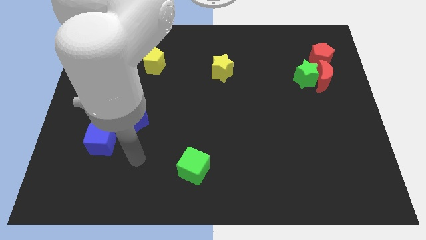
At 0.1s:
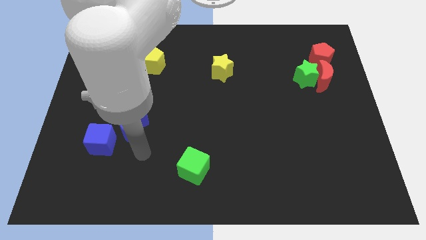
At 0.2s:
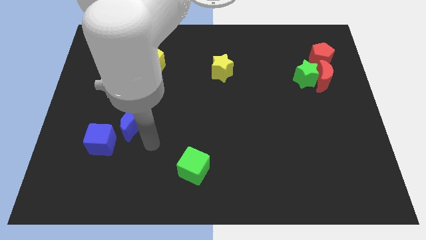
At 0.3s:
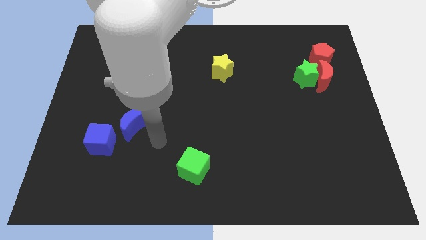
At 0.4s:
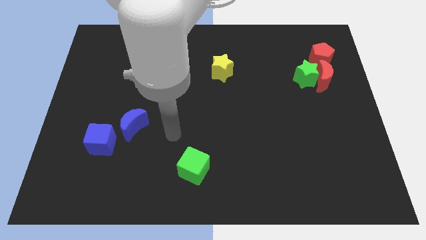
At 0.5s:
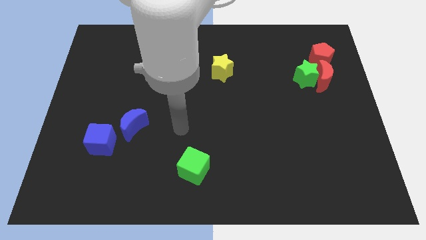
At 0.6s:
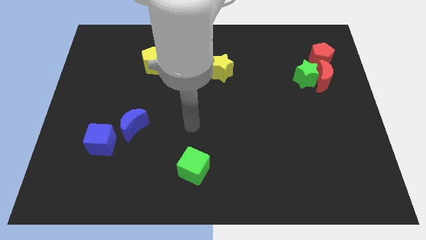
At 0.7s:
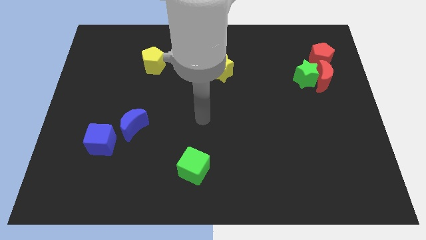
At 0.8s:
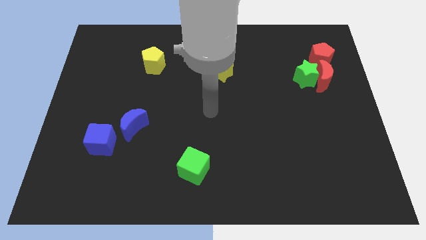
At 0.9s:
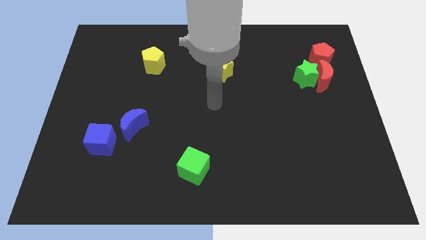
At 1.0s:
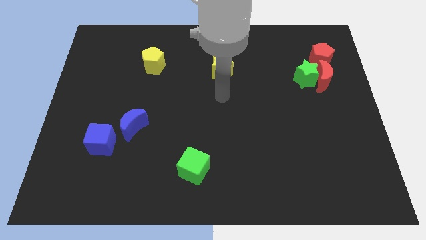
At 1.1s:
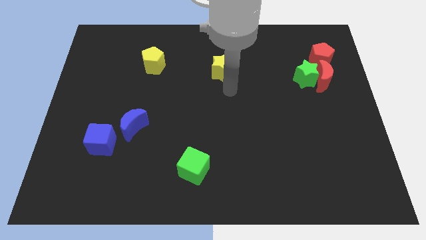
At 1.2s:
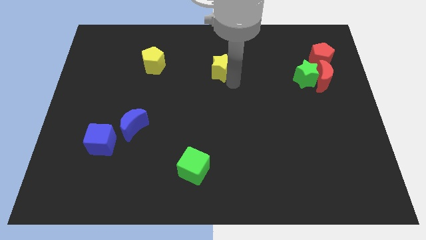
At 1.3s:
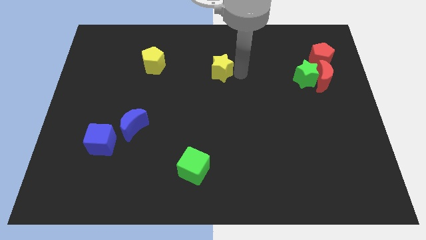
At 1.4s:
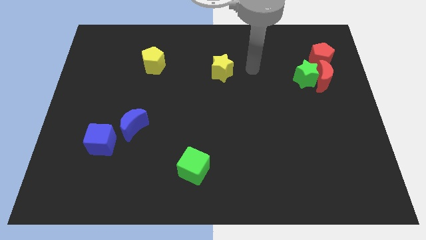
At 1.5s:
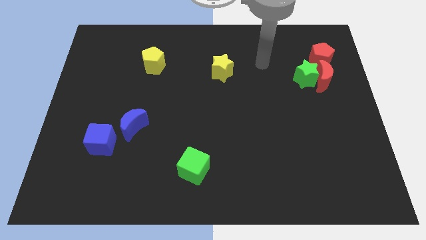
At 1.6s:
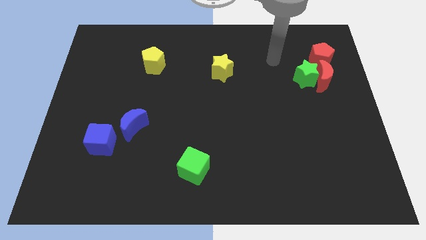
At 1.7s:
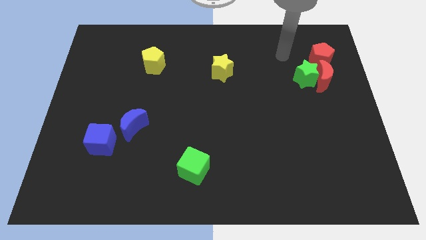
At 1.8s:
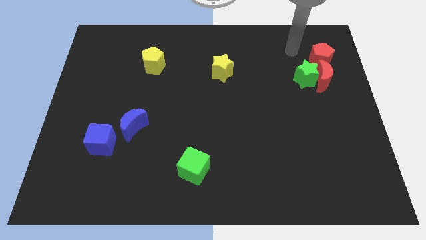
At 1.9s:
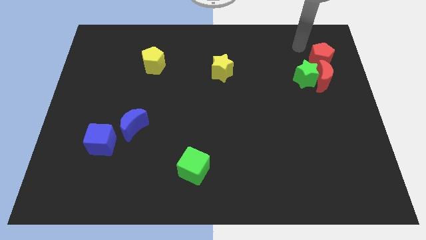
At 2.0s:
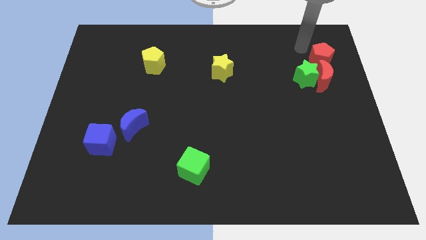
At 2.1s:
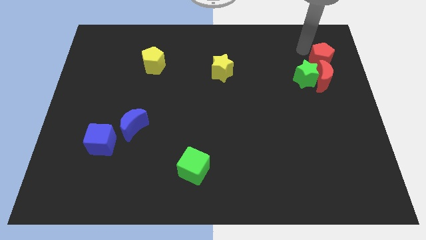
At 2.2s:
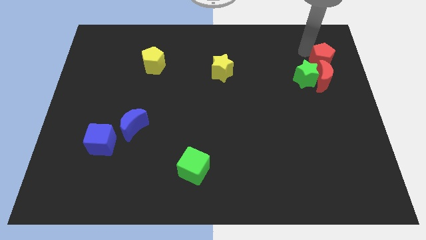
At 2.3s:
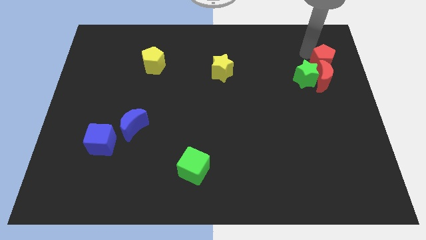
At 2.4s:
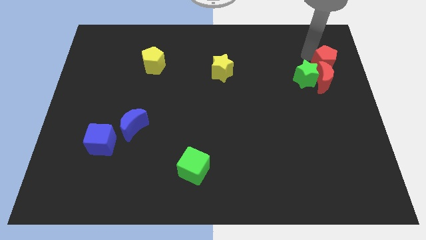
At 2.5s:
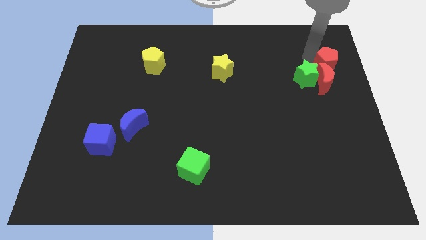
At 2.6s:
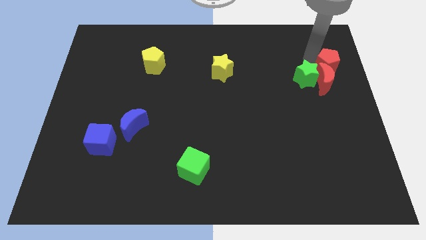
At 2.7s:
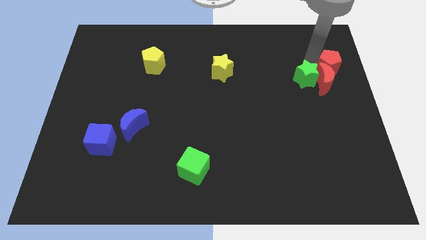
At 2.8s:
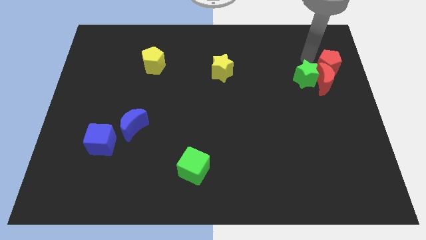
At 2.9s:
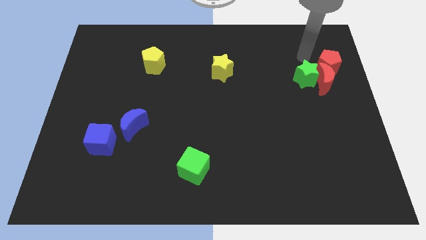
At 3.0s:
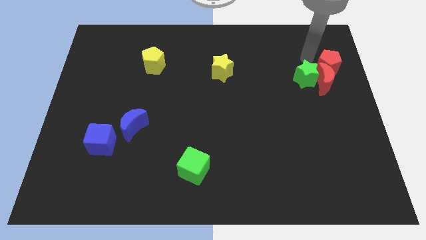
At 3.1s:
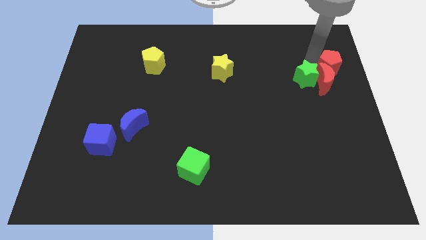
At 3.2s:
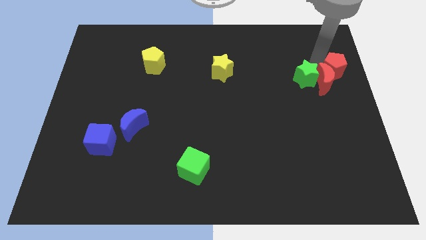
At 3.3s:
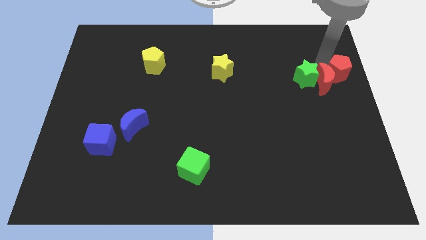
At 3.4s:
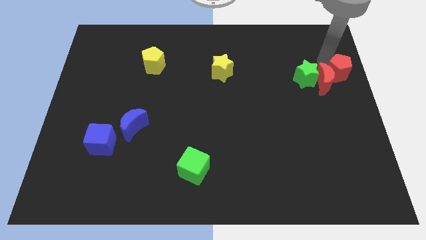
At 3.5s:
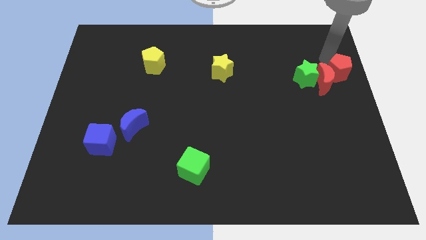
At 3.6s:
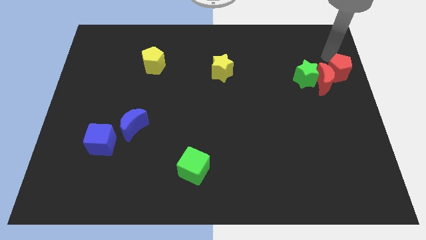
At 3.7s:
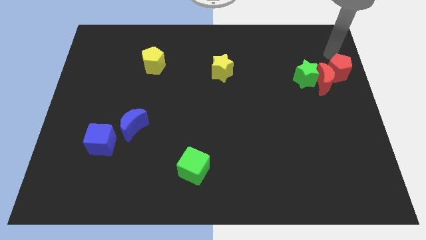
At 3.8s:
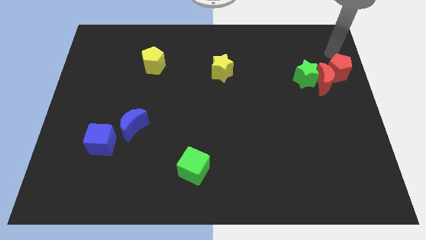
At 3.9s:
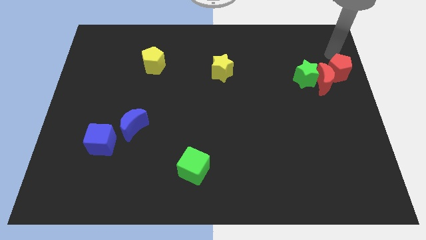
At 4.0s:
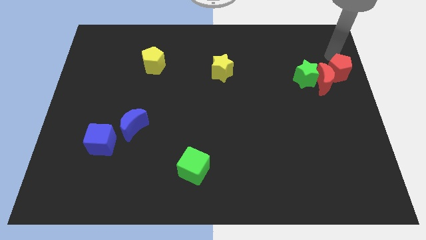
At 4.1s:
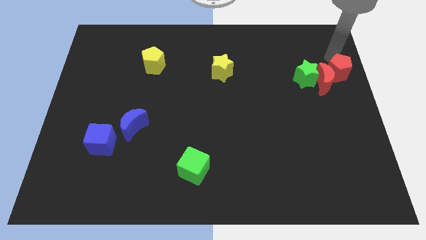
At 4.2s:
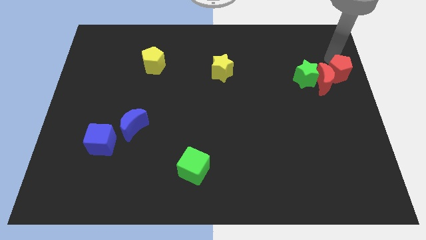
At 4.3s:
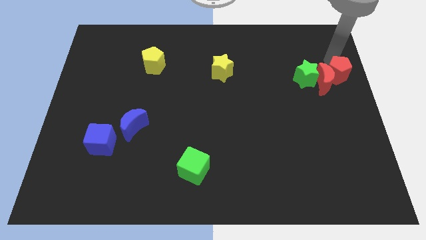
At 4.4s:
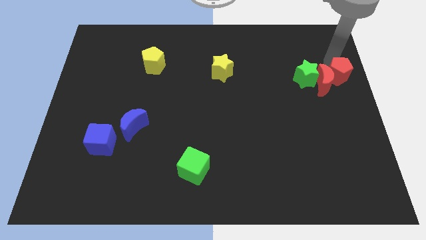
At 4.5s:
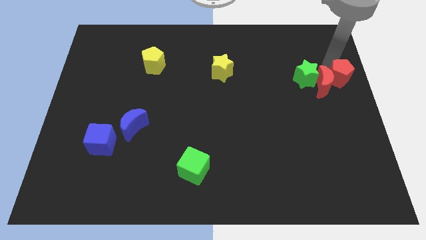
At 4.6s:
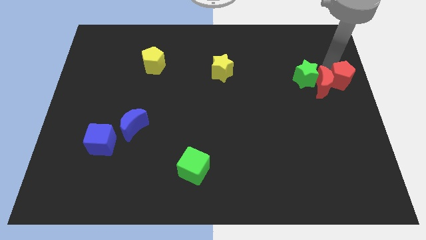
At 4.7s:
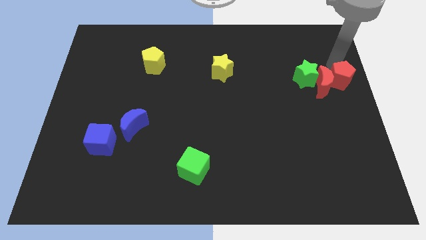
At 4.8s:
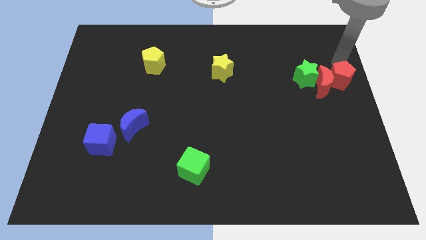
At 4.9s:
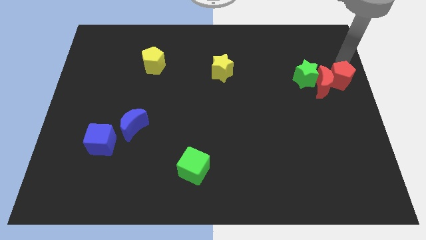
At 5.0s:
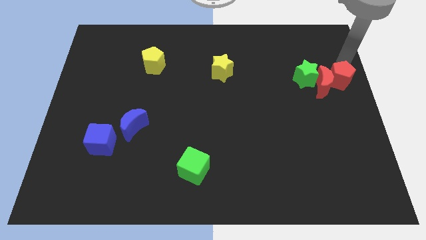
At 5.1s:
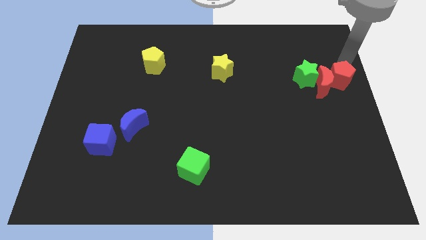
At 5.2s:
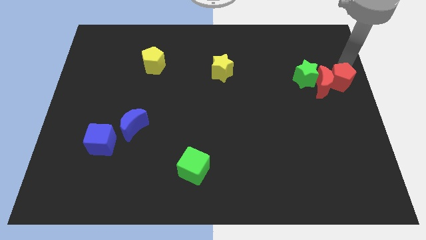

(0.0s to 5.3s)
slightly push the red pentagon downwards

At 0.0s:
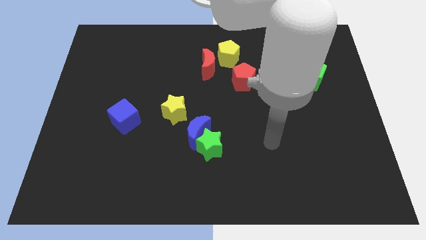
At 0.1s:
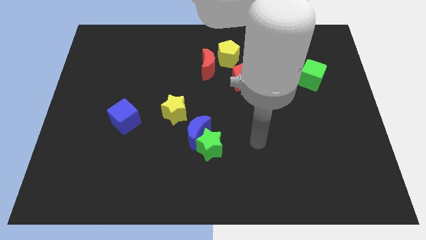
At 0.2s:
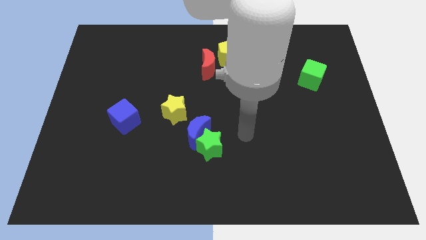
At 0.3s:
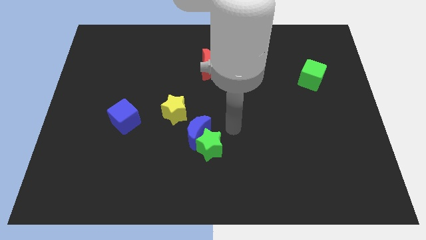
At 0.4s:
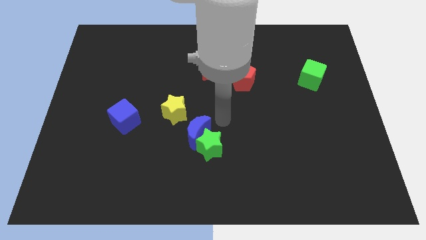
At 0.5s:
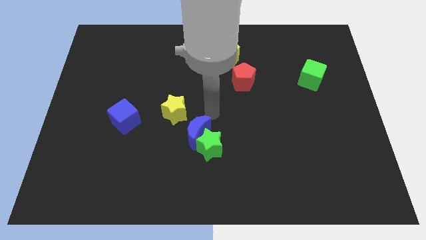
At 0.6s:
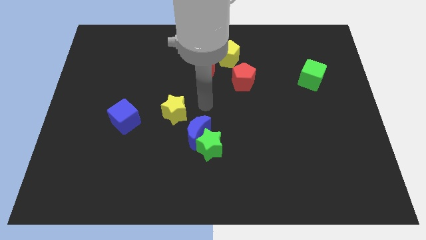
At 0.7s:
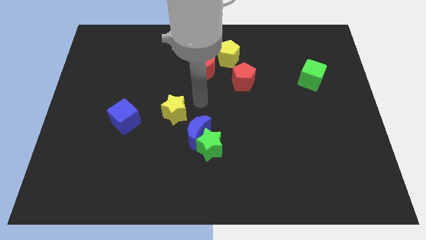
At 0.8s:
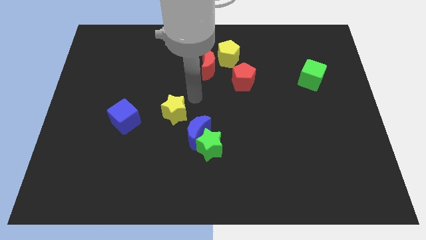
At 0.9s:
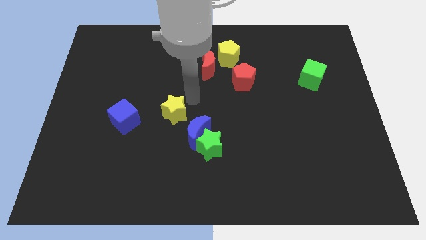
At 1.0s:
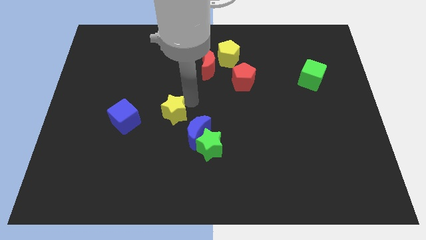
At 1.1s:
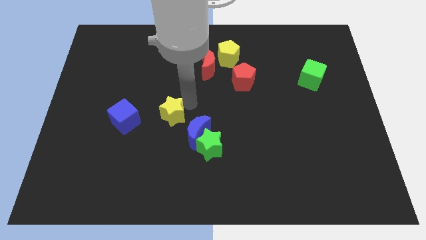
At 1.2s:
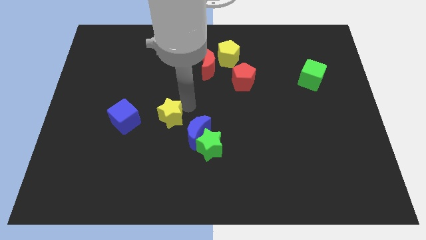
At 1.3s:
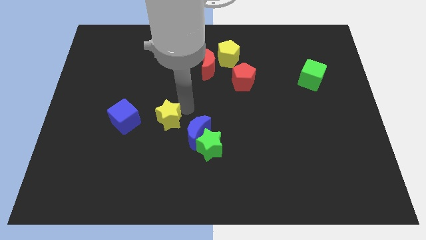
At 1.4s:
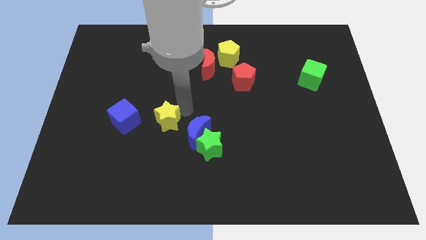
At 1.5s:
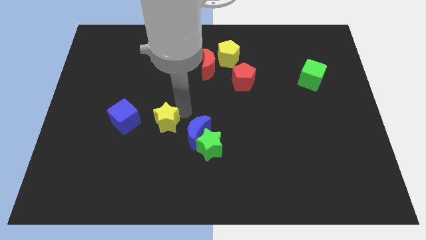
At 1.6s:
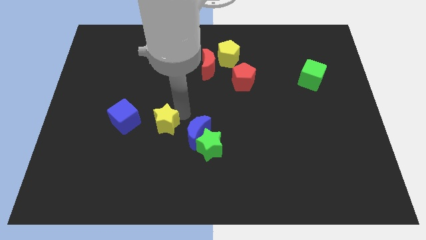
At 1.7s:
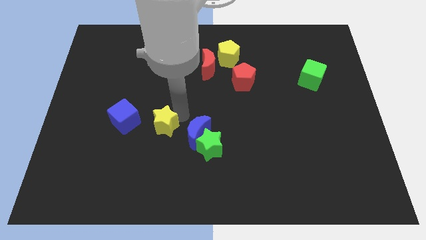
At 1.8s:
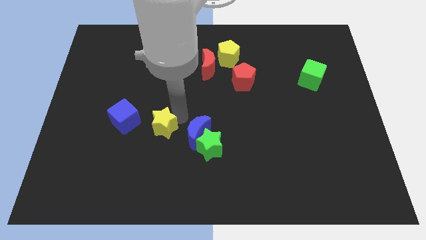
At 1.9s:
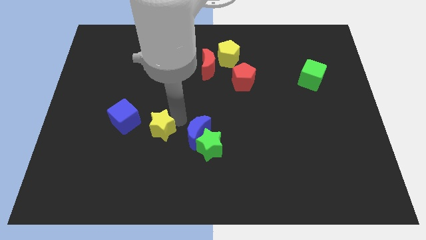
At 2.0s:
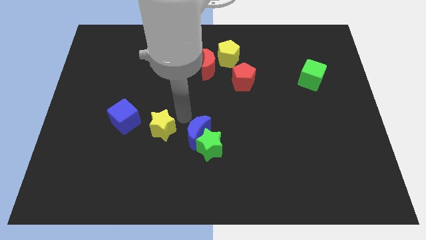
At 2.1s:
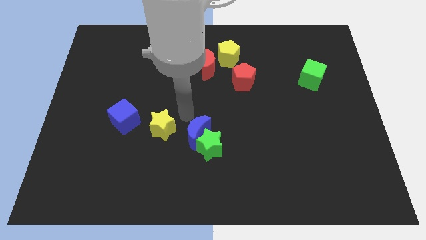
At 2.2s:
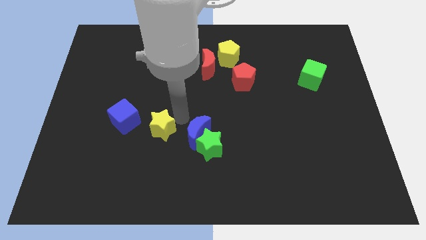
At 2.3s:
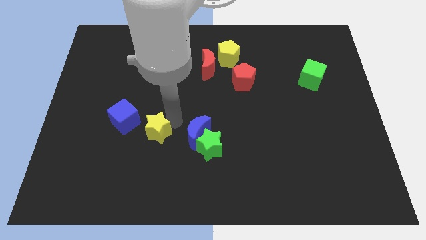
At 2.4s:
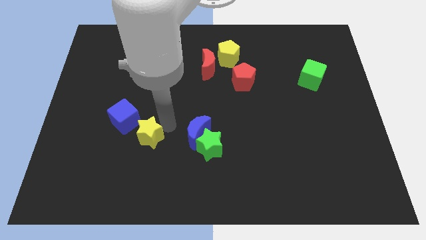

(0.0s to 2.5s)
push the yellow star downwards and then left a little bit
